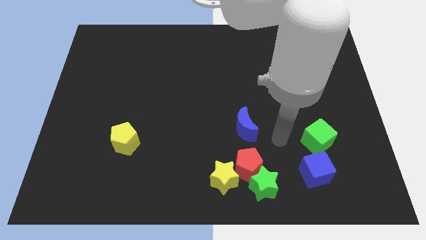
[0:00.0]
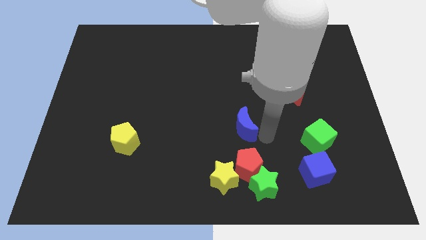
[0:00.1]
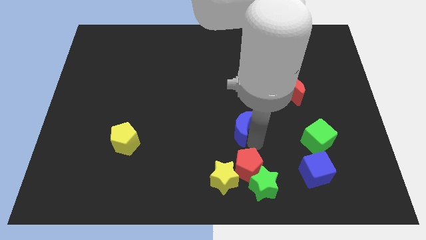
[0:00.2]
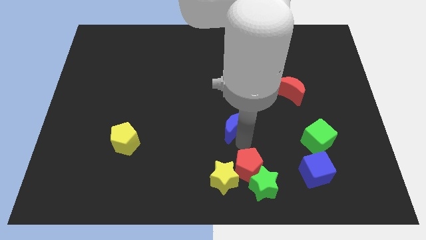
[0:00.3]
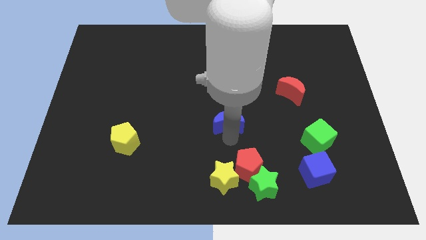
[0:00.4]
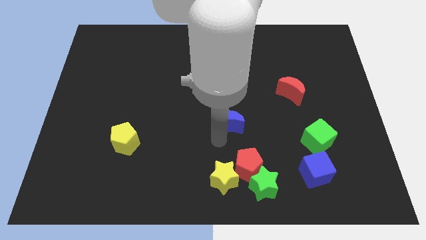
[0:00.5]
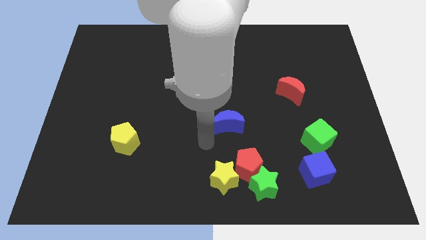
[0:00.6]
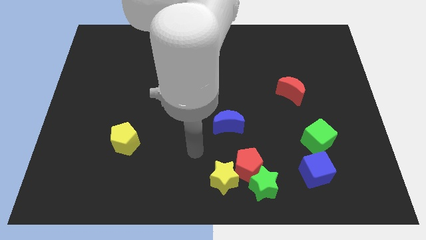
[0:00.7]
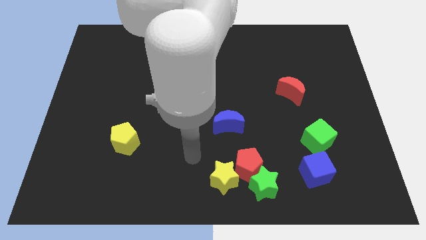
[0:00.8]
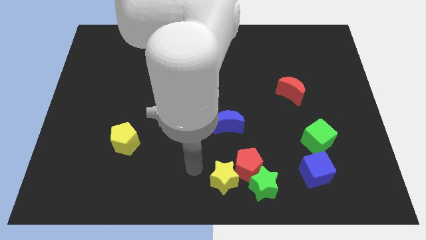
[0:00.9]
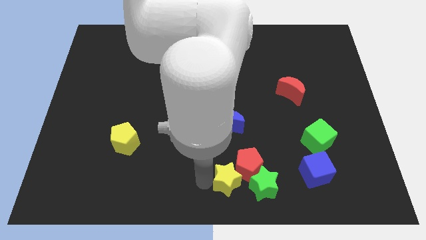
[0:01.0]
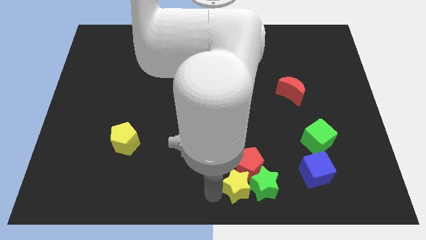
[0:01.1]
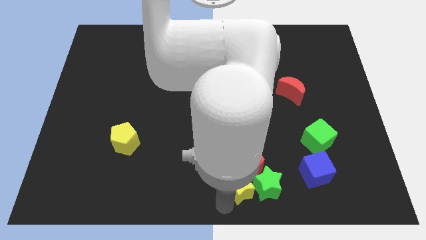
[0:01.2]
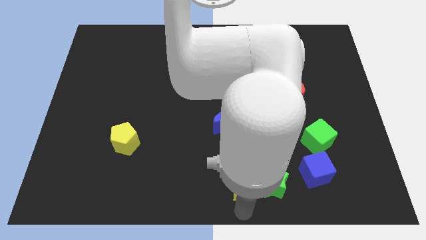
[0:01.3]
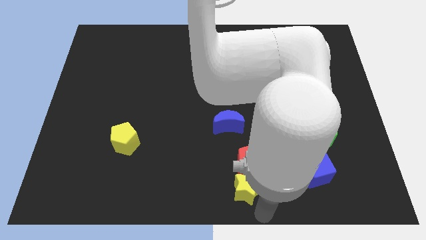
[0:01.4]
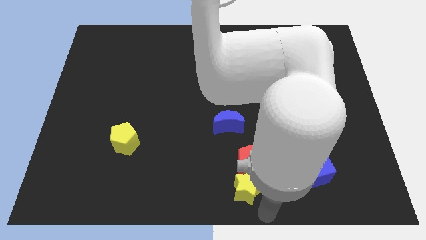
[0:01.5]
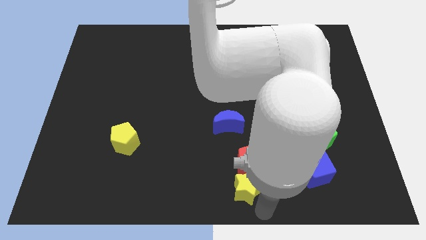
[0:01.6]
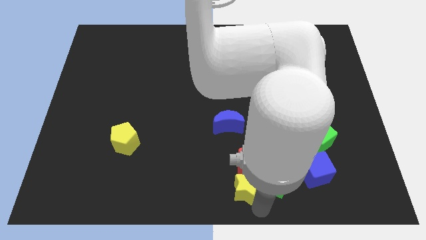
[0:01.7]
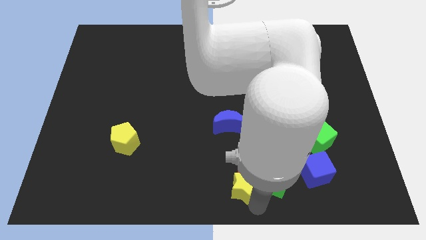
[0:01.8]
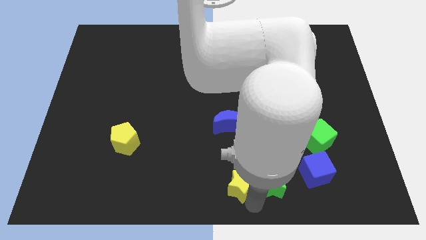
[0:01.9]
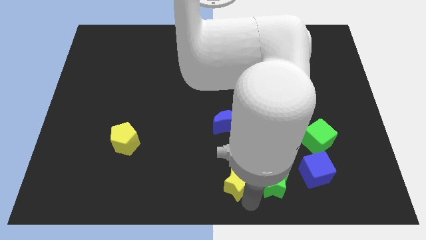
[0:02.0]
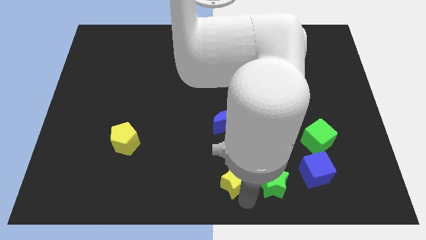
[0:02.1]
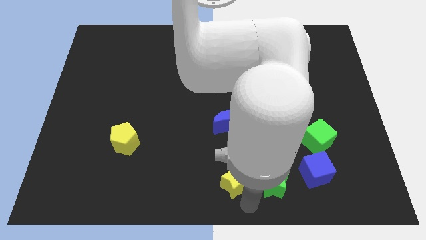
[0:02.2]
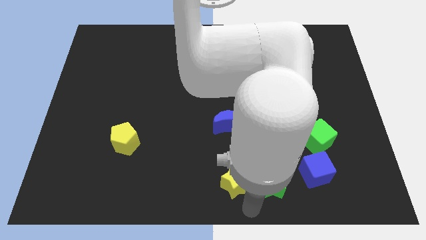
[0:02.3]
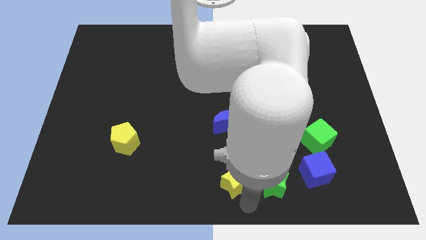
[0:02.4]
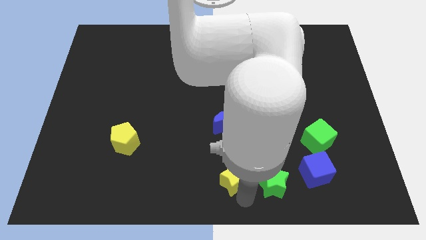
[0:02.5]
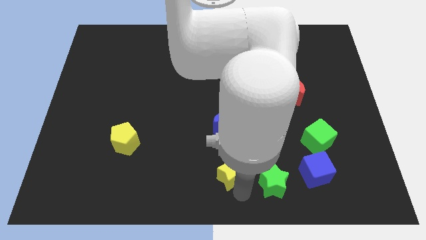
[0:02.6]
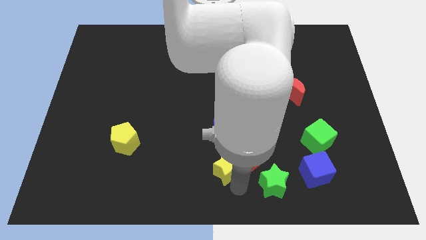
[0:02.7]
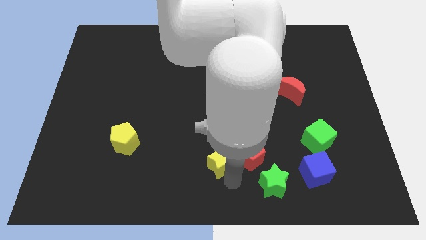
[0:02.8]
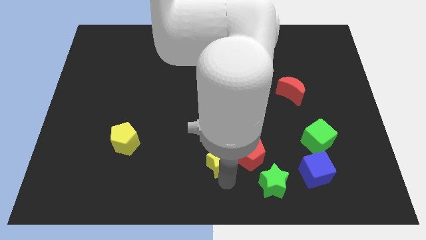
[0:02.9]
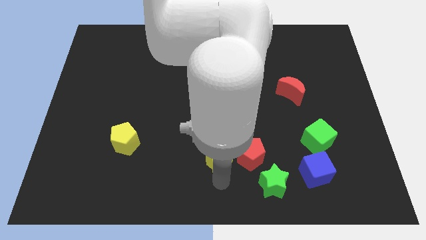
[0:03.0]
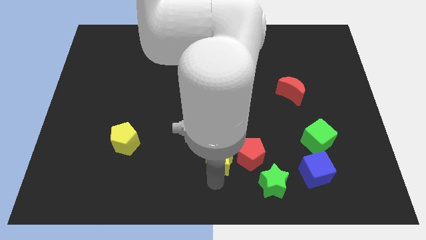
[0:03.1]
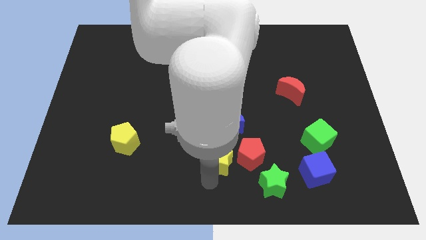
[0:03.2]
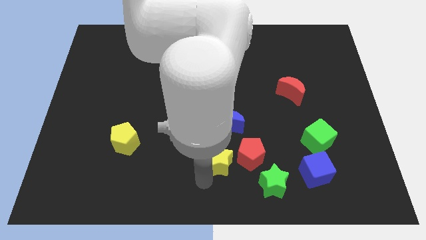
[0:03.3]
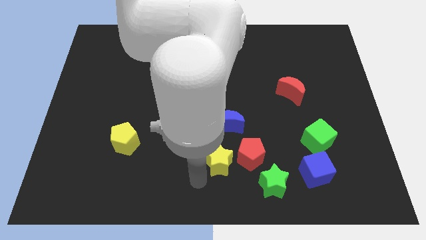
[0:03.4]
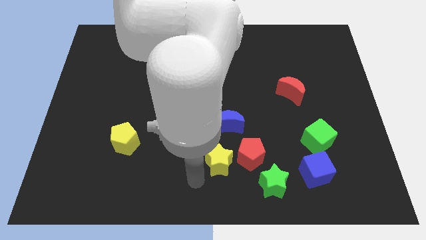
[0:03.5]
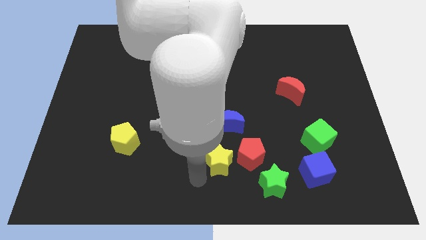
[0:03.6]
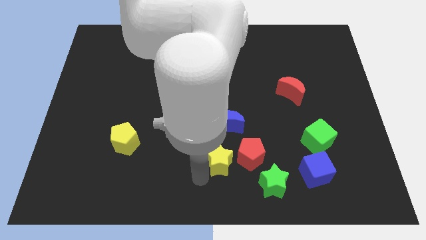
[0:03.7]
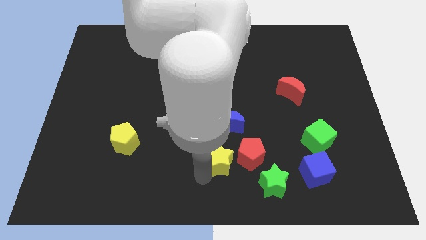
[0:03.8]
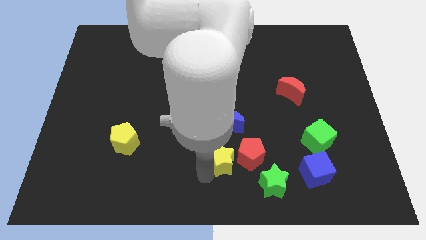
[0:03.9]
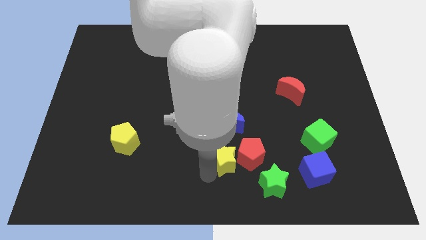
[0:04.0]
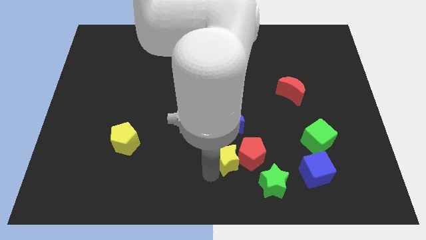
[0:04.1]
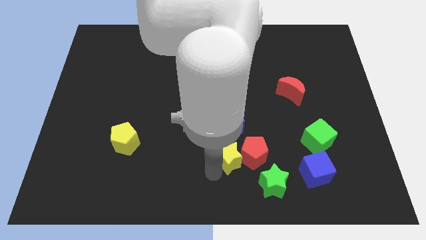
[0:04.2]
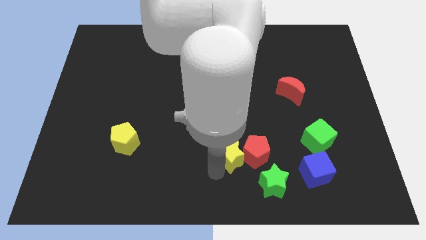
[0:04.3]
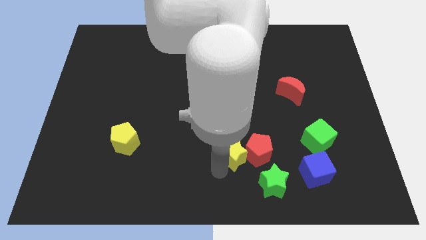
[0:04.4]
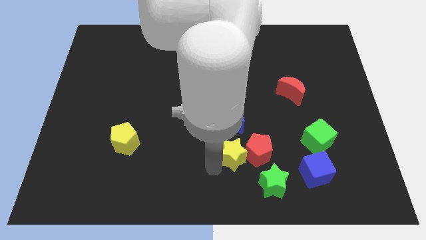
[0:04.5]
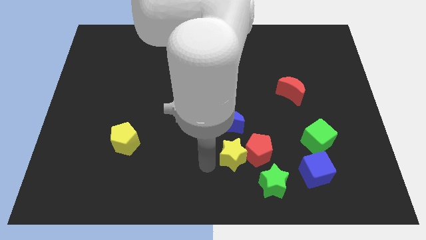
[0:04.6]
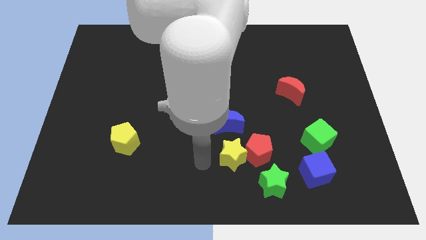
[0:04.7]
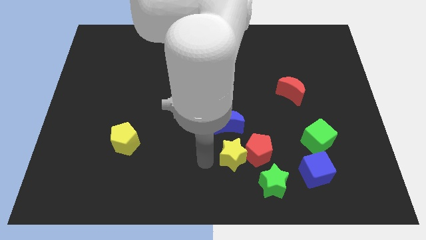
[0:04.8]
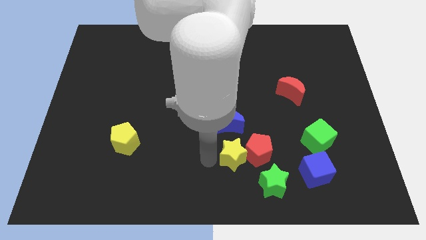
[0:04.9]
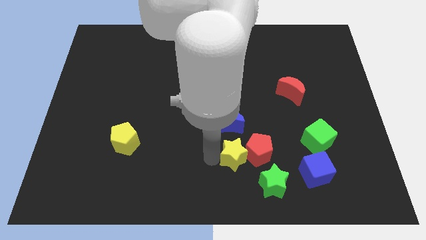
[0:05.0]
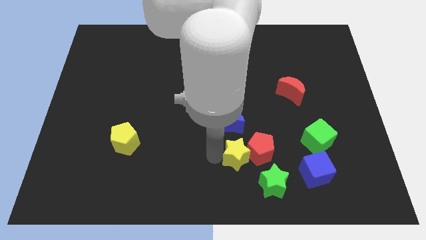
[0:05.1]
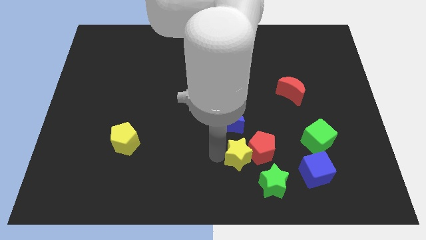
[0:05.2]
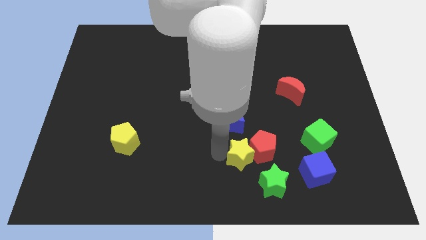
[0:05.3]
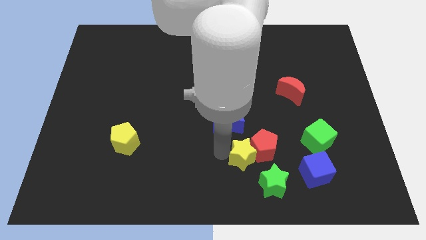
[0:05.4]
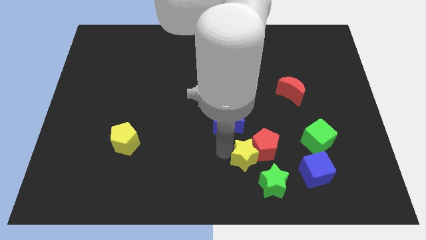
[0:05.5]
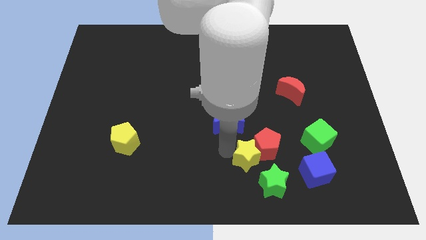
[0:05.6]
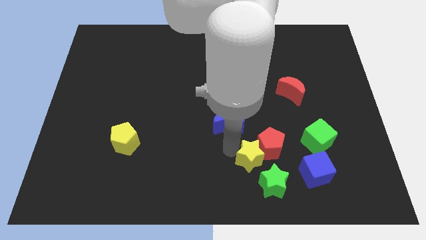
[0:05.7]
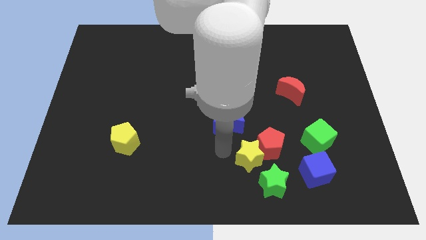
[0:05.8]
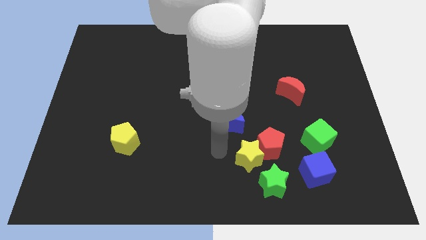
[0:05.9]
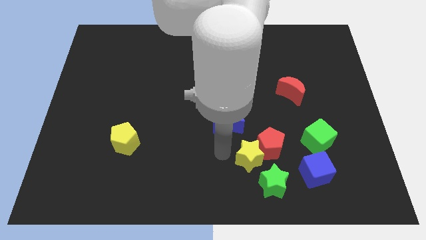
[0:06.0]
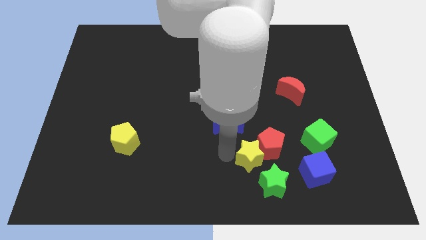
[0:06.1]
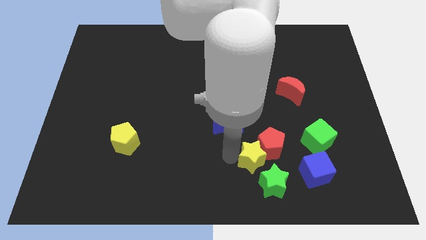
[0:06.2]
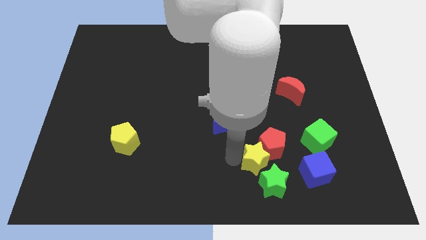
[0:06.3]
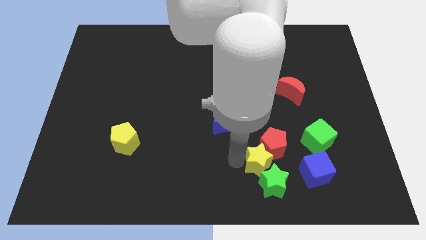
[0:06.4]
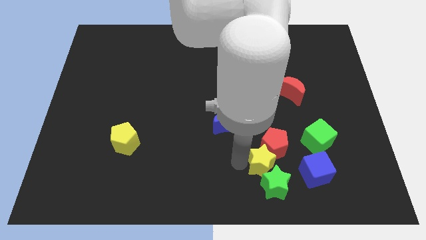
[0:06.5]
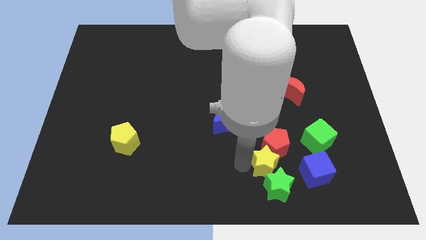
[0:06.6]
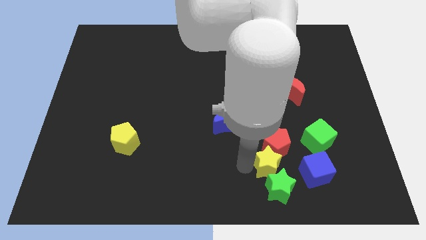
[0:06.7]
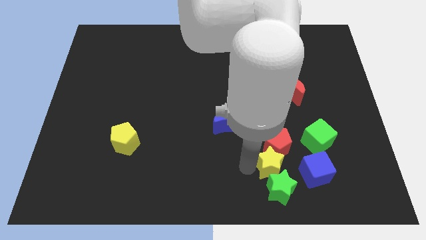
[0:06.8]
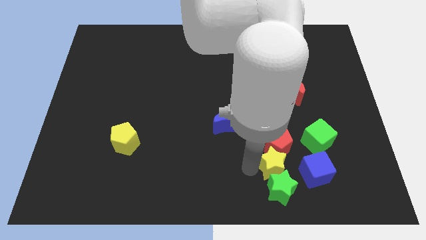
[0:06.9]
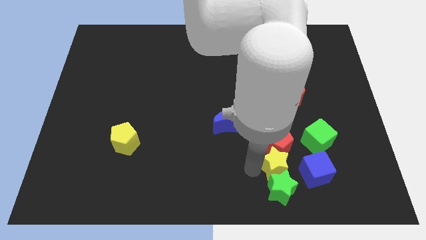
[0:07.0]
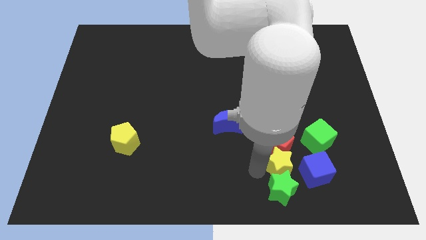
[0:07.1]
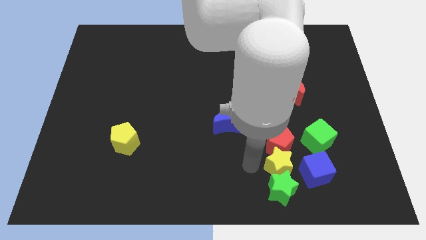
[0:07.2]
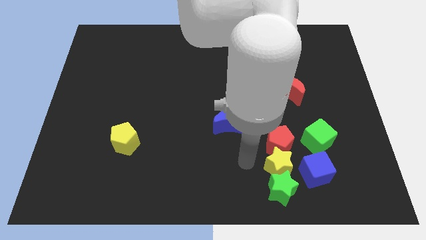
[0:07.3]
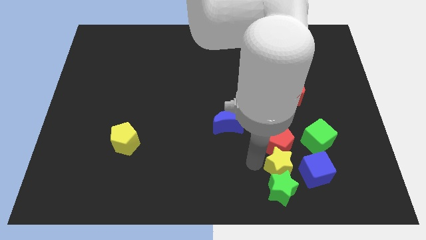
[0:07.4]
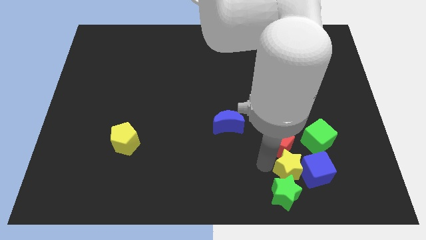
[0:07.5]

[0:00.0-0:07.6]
move the yellow star close to the blue cube
